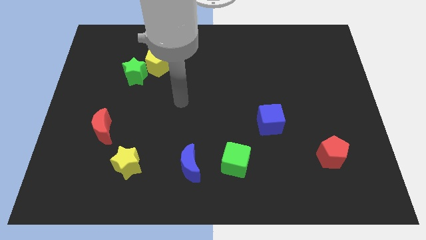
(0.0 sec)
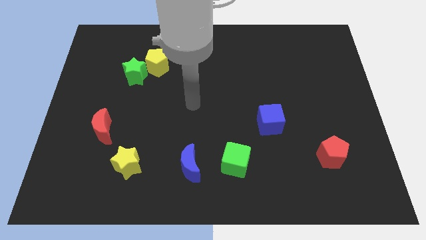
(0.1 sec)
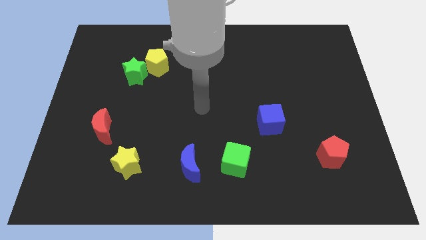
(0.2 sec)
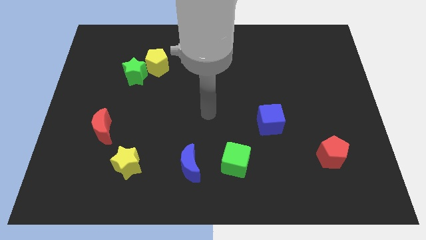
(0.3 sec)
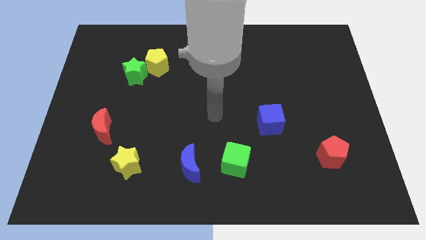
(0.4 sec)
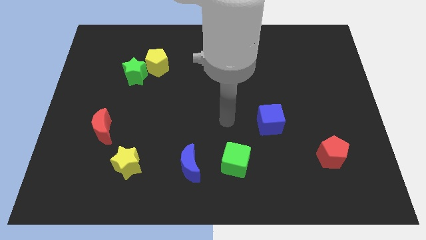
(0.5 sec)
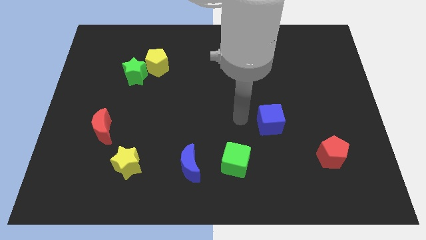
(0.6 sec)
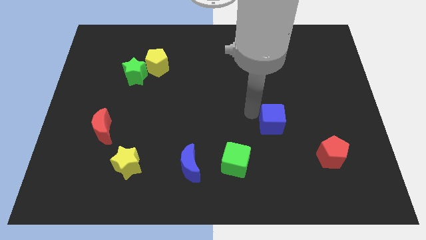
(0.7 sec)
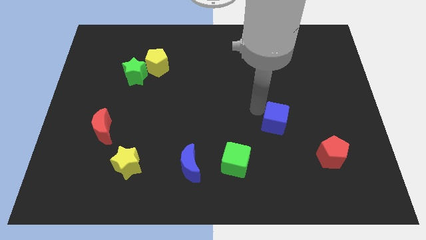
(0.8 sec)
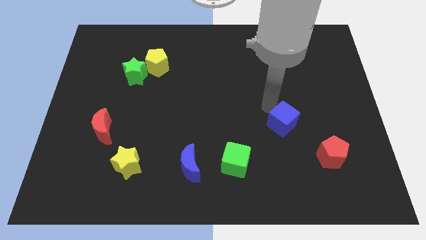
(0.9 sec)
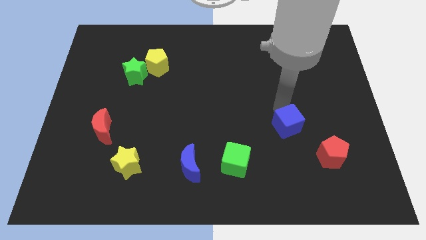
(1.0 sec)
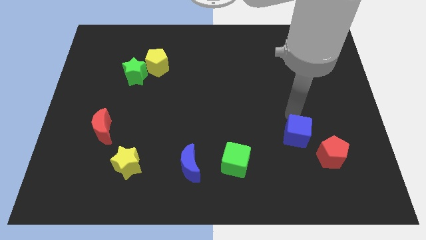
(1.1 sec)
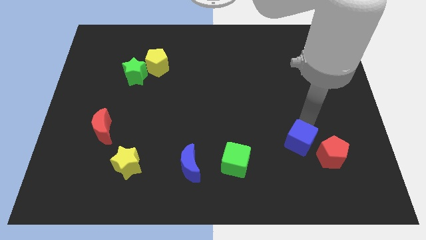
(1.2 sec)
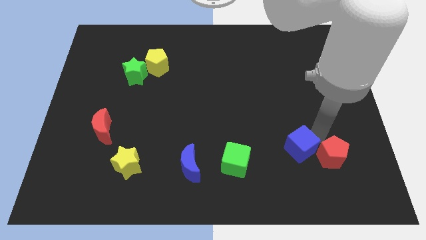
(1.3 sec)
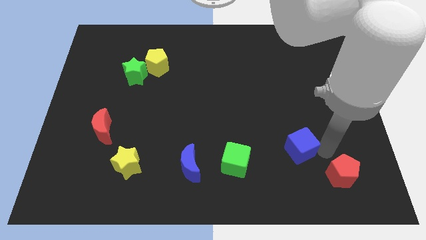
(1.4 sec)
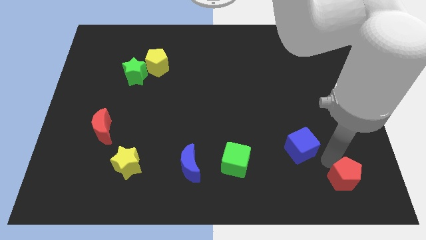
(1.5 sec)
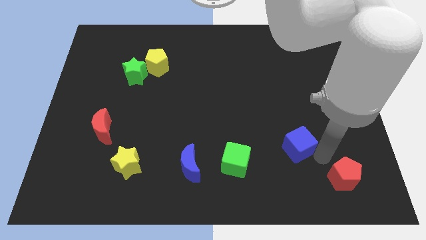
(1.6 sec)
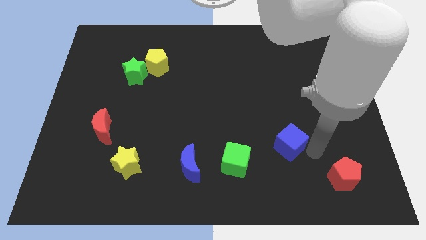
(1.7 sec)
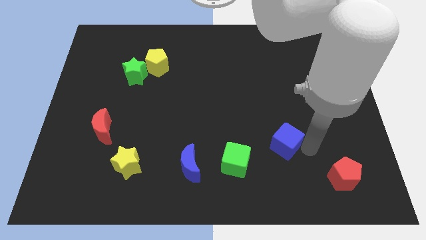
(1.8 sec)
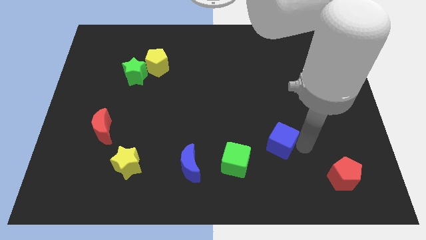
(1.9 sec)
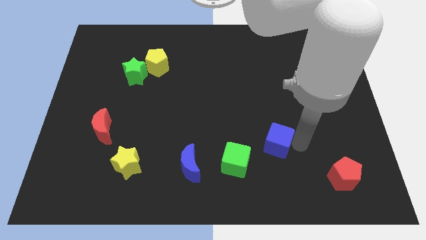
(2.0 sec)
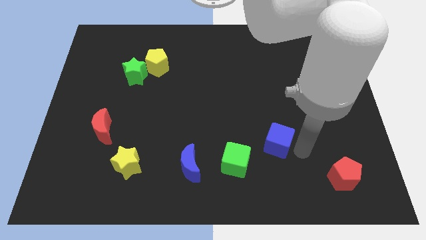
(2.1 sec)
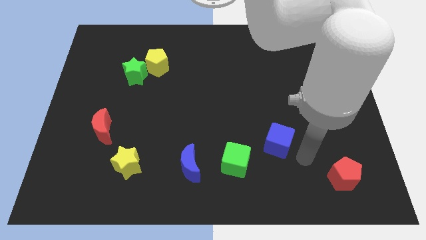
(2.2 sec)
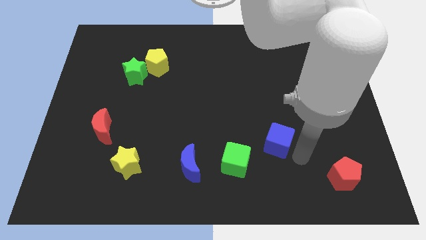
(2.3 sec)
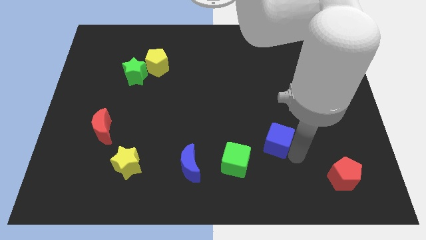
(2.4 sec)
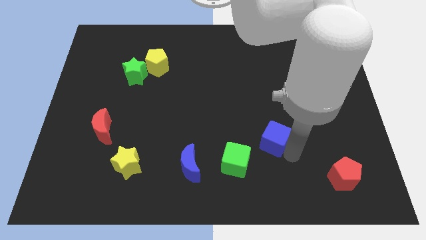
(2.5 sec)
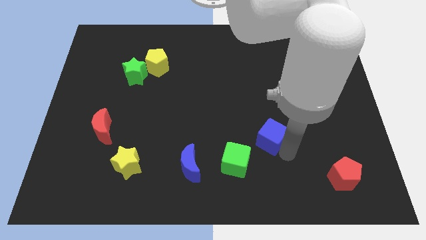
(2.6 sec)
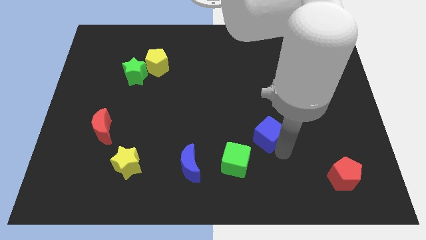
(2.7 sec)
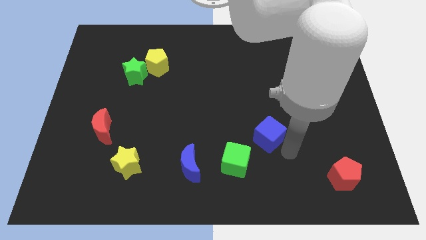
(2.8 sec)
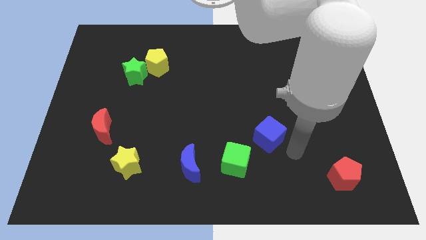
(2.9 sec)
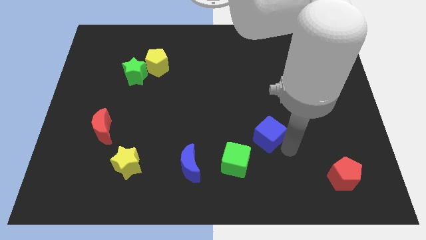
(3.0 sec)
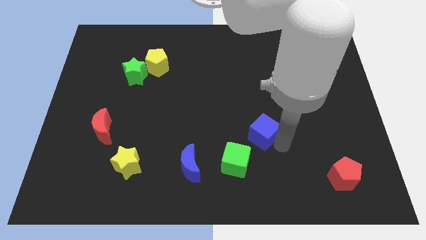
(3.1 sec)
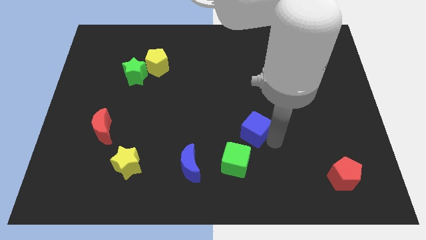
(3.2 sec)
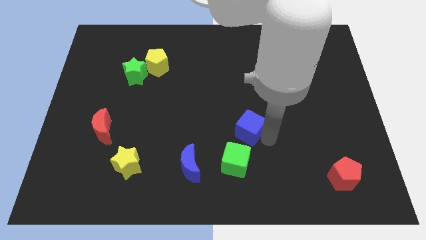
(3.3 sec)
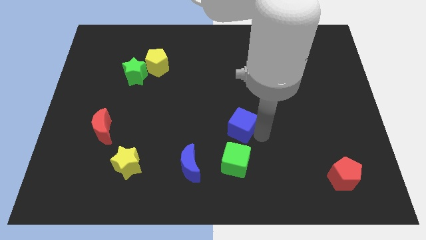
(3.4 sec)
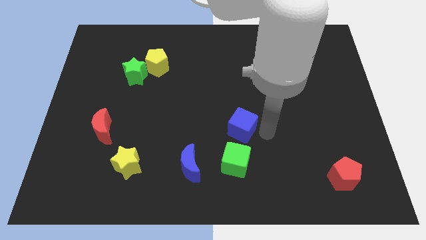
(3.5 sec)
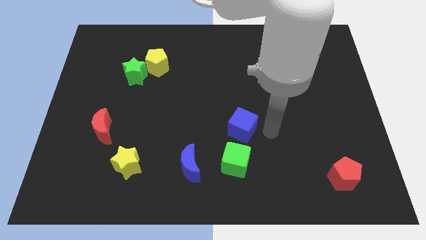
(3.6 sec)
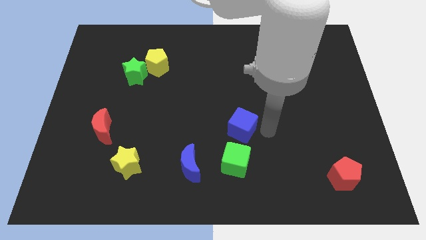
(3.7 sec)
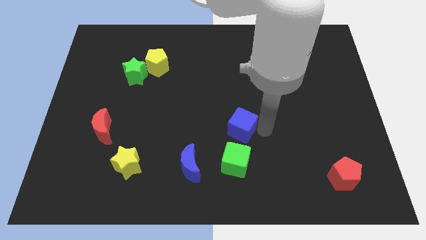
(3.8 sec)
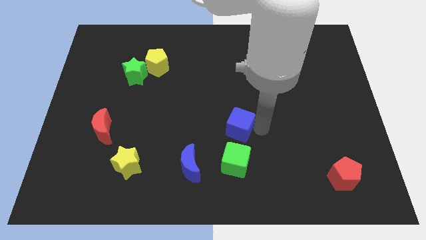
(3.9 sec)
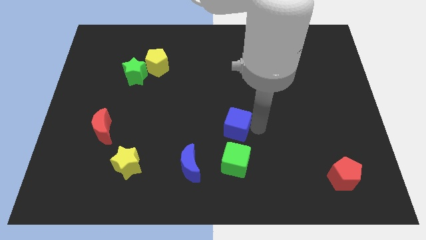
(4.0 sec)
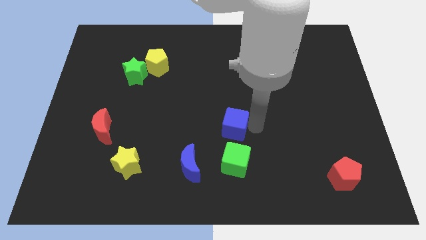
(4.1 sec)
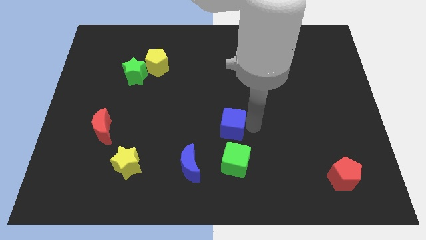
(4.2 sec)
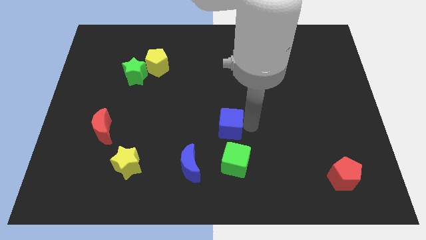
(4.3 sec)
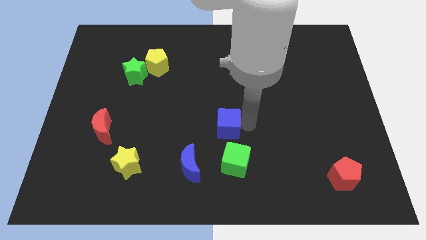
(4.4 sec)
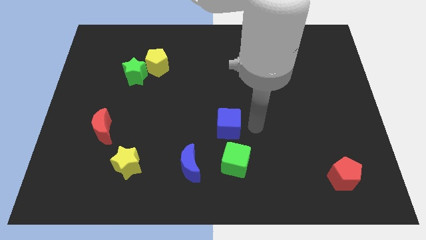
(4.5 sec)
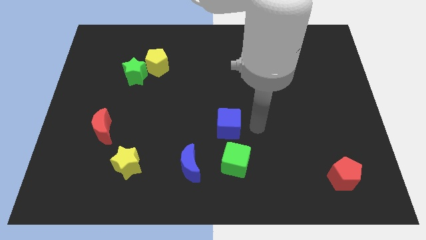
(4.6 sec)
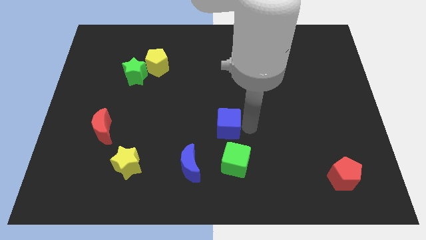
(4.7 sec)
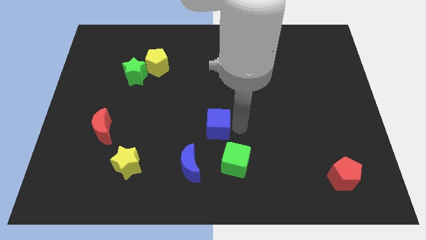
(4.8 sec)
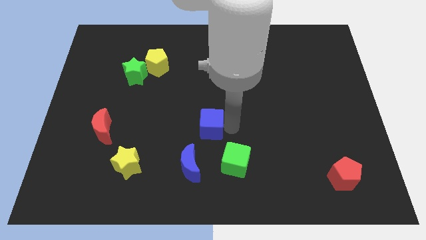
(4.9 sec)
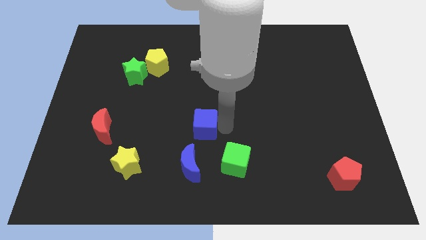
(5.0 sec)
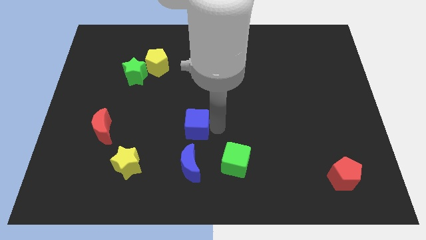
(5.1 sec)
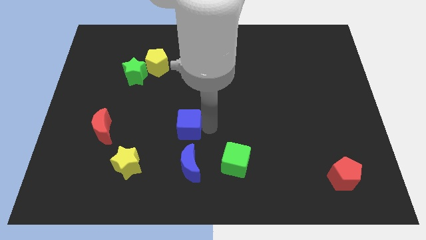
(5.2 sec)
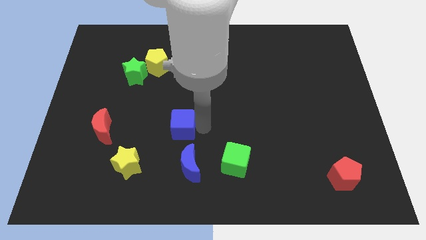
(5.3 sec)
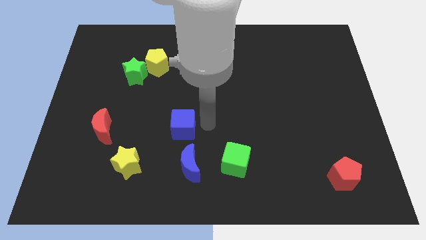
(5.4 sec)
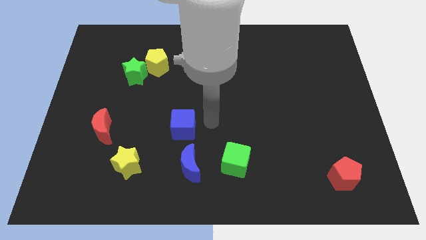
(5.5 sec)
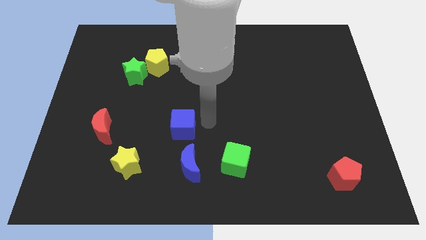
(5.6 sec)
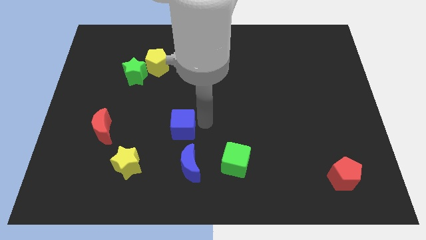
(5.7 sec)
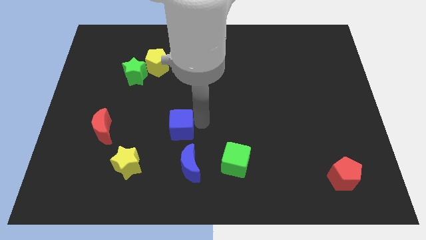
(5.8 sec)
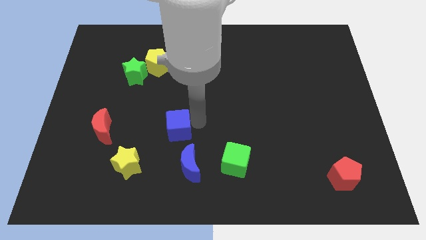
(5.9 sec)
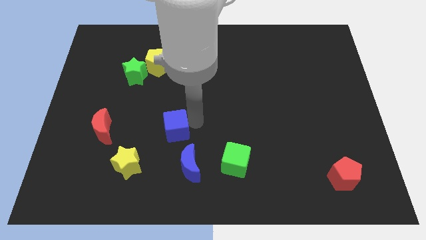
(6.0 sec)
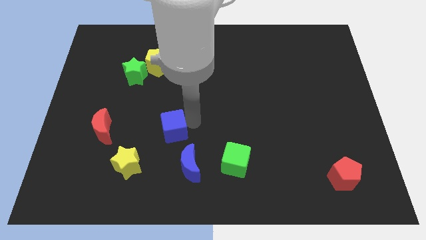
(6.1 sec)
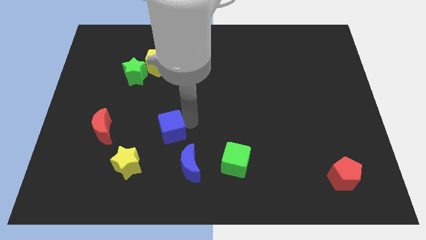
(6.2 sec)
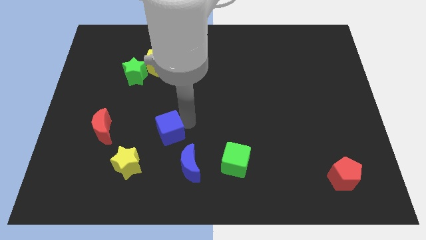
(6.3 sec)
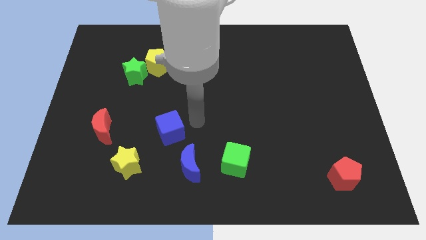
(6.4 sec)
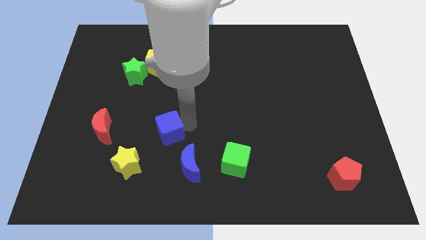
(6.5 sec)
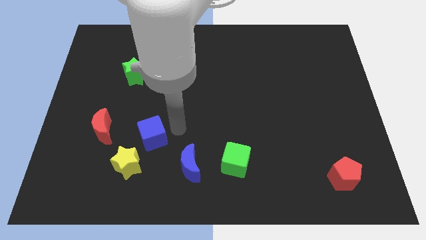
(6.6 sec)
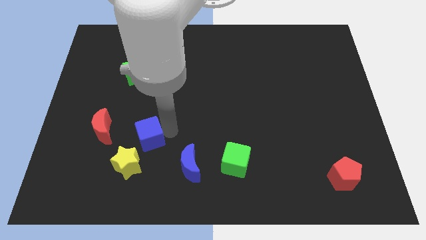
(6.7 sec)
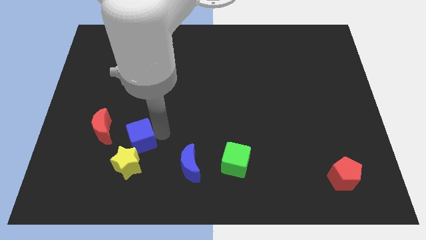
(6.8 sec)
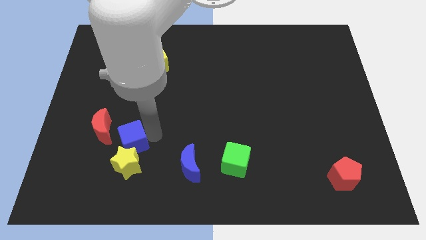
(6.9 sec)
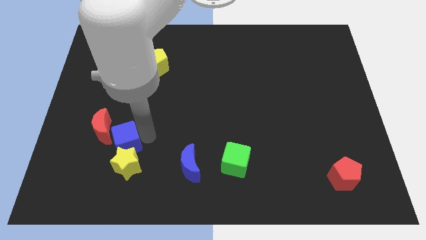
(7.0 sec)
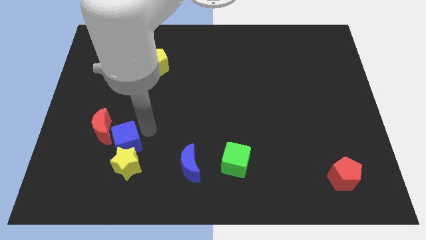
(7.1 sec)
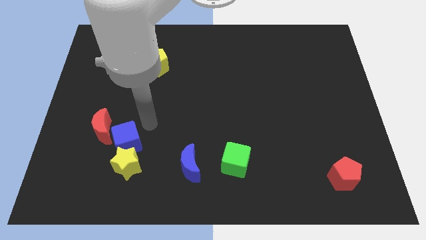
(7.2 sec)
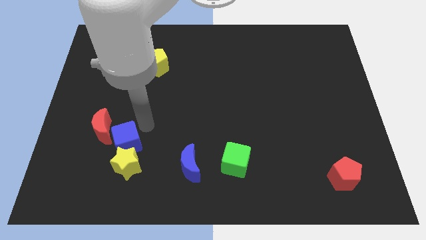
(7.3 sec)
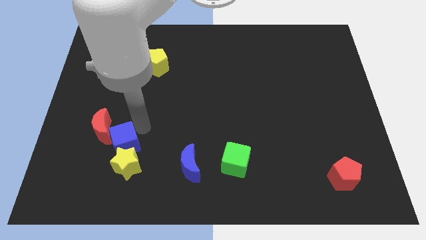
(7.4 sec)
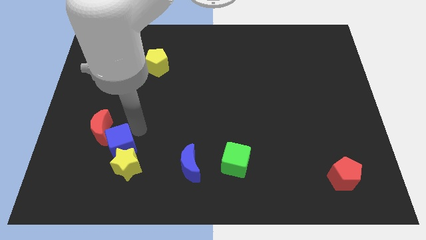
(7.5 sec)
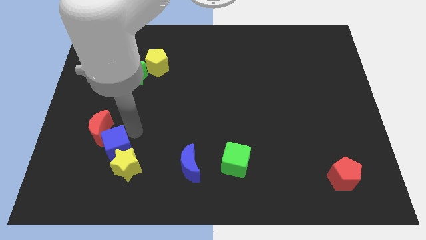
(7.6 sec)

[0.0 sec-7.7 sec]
slide the blue cube to the bottom side of the red moon
